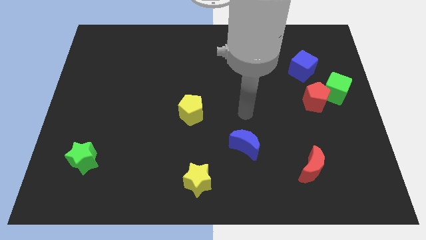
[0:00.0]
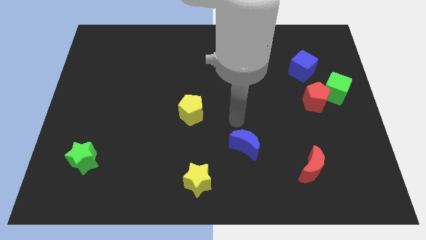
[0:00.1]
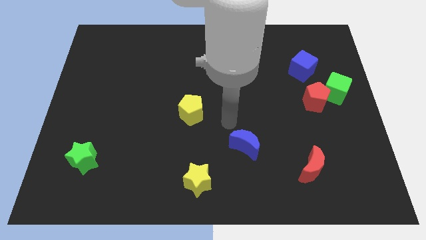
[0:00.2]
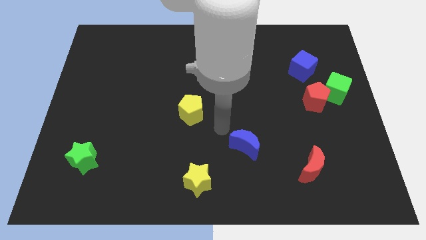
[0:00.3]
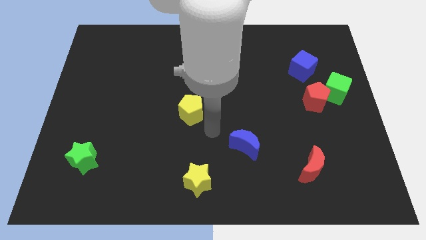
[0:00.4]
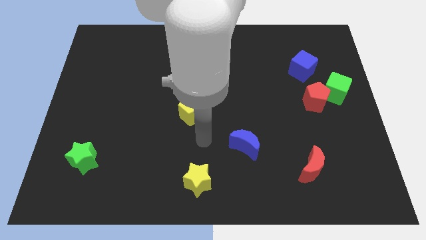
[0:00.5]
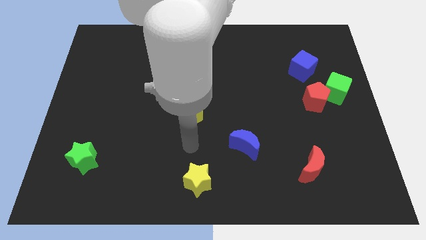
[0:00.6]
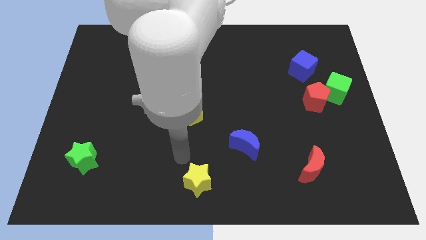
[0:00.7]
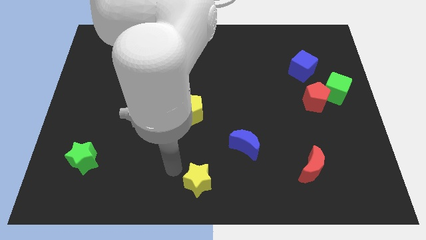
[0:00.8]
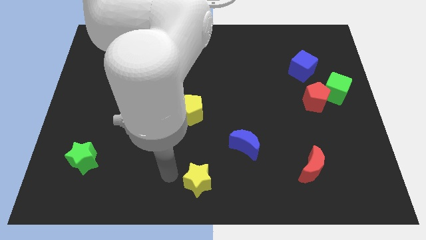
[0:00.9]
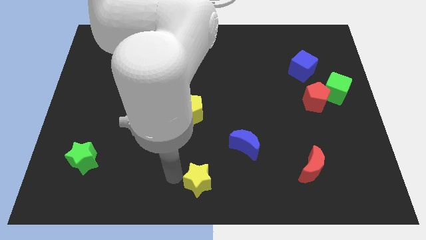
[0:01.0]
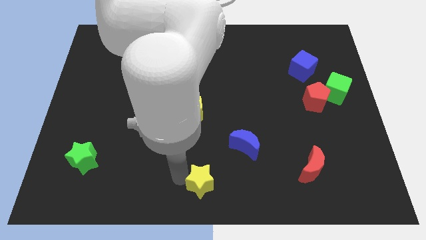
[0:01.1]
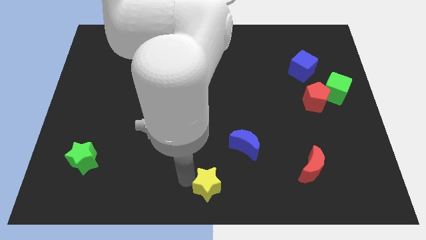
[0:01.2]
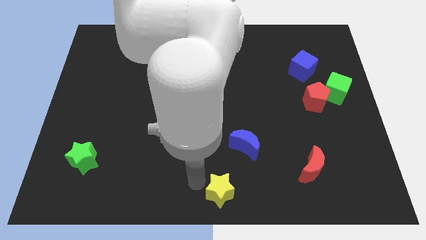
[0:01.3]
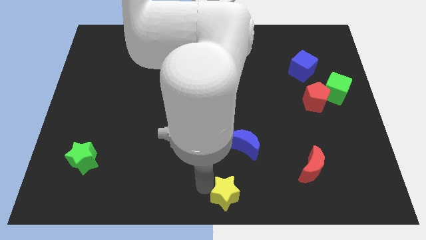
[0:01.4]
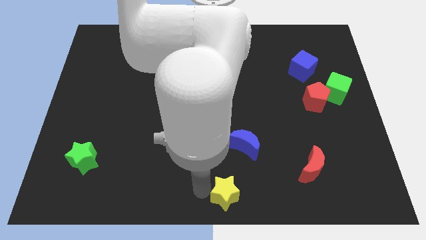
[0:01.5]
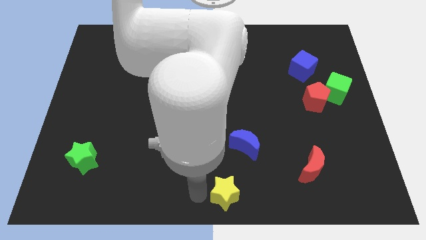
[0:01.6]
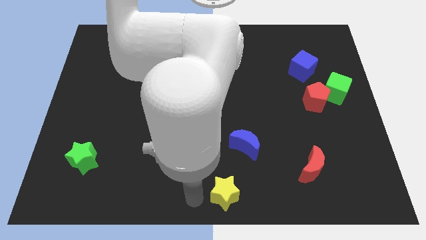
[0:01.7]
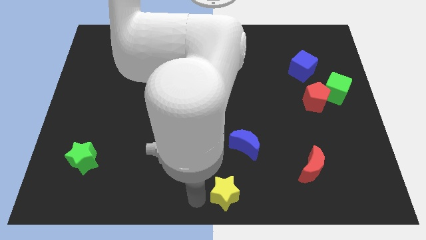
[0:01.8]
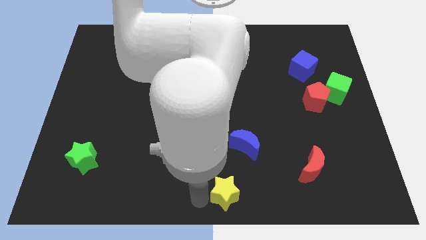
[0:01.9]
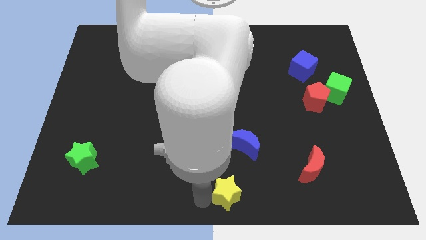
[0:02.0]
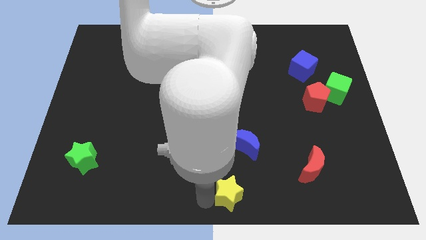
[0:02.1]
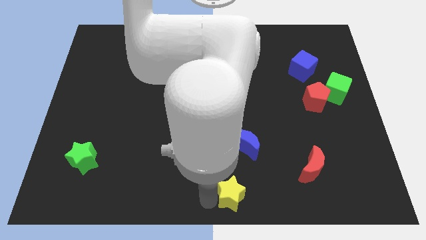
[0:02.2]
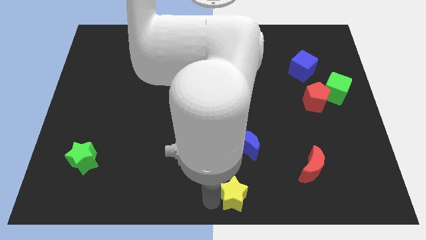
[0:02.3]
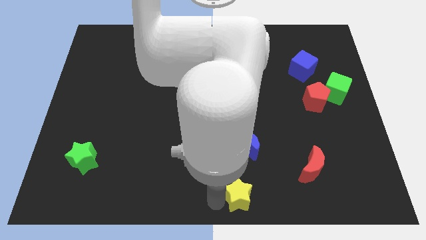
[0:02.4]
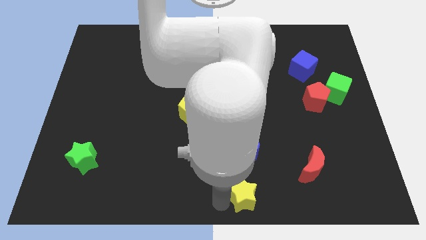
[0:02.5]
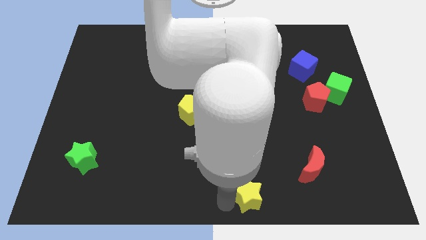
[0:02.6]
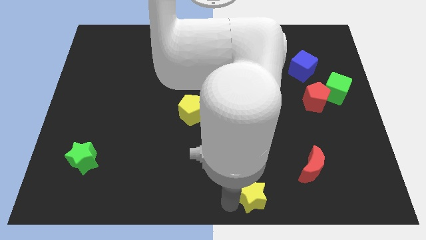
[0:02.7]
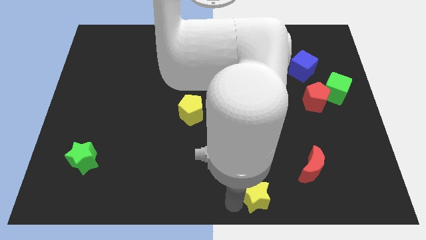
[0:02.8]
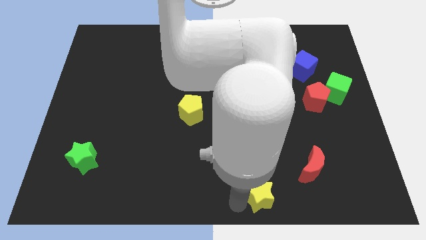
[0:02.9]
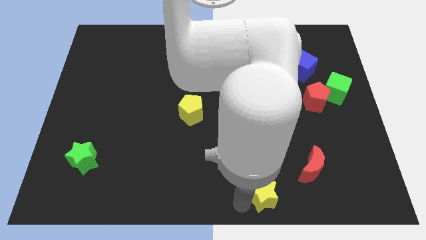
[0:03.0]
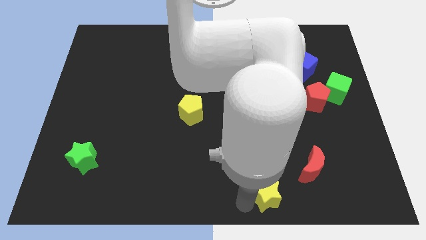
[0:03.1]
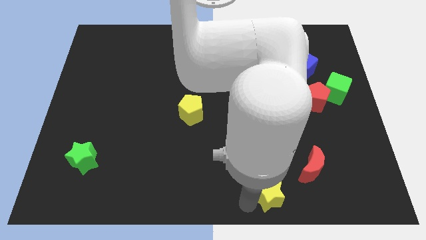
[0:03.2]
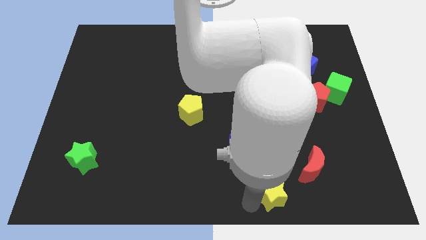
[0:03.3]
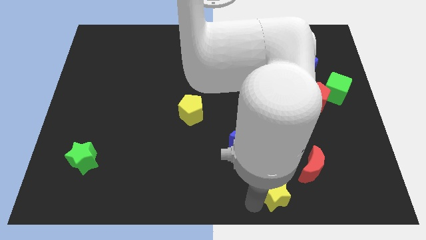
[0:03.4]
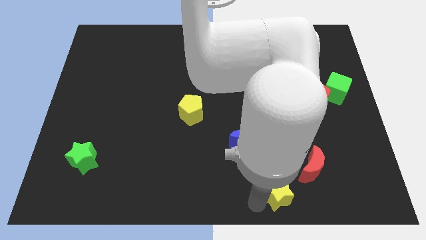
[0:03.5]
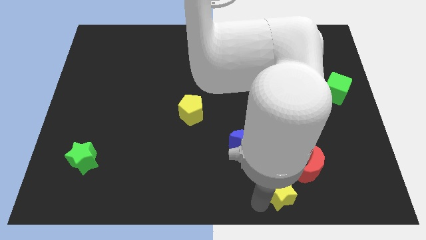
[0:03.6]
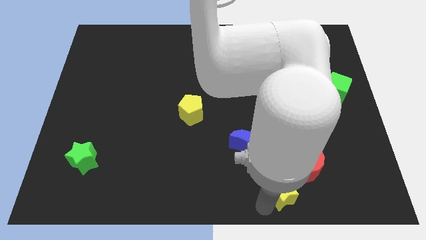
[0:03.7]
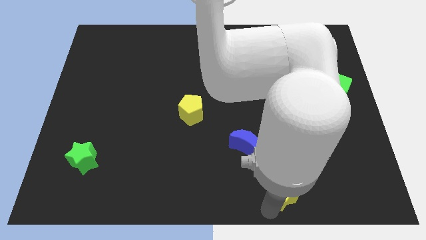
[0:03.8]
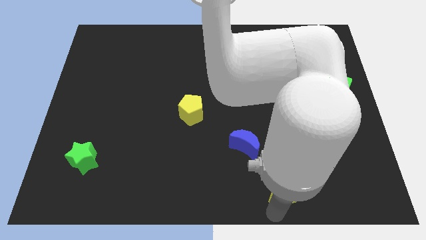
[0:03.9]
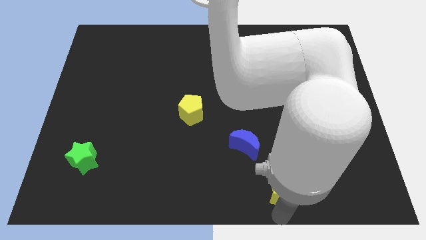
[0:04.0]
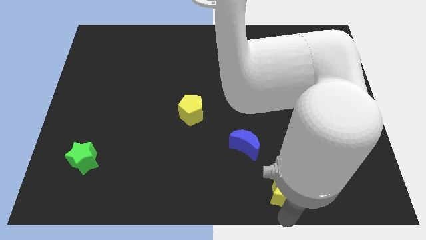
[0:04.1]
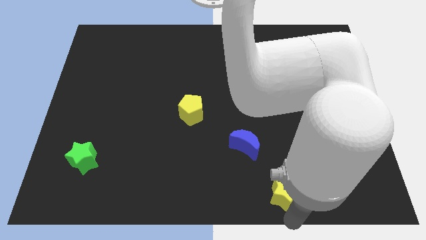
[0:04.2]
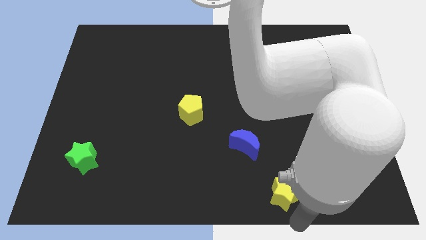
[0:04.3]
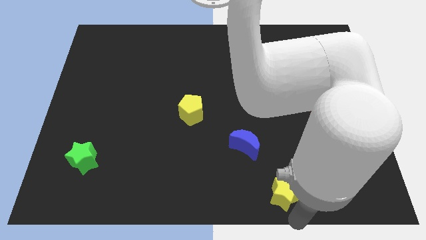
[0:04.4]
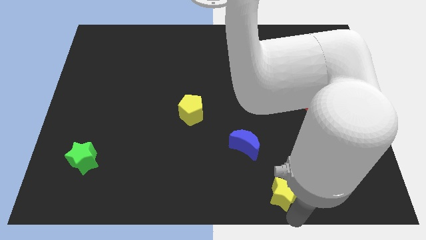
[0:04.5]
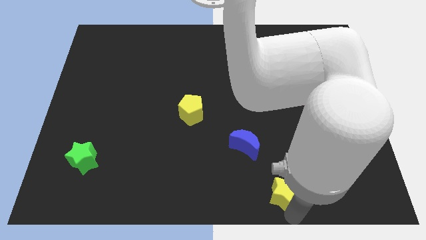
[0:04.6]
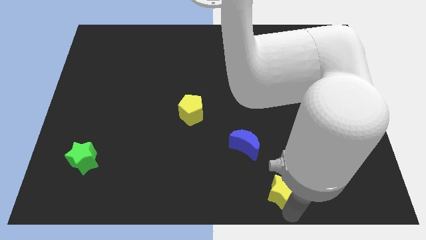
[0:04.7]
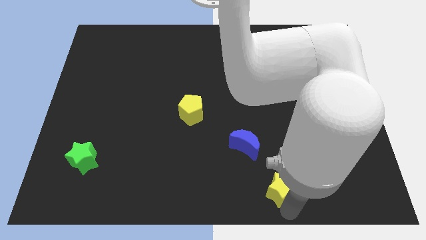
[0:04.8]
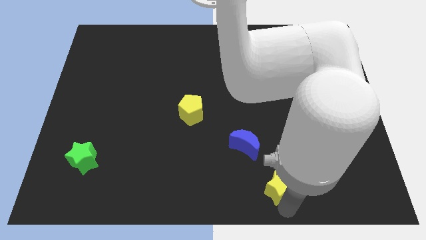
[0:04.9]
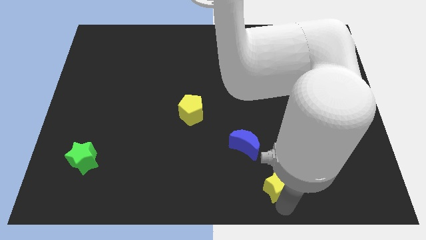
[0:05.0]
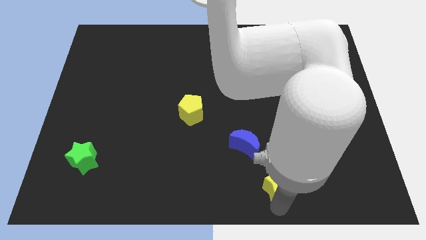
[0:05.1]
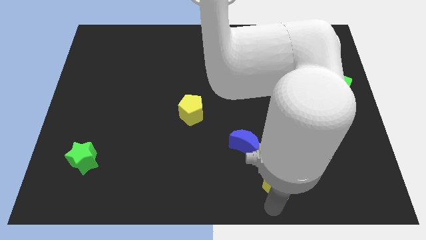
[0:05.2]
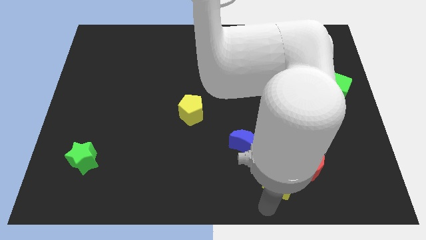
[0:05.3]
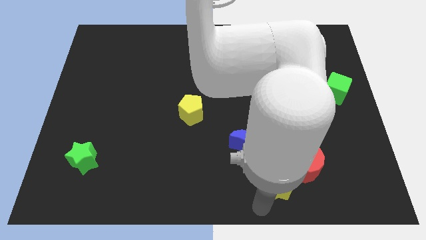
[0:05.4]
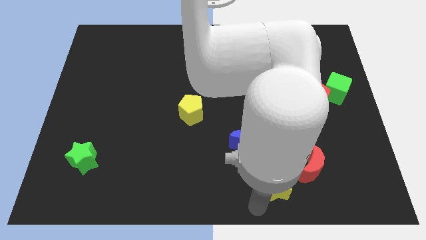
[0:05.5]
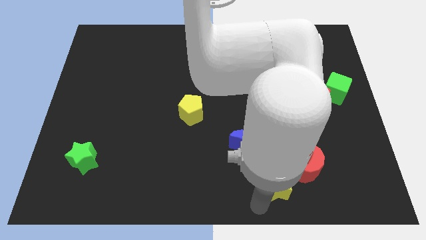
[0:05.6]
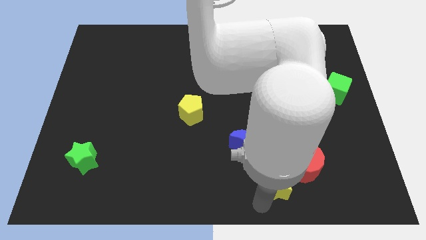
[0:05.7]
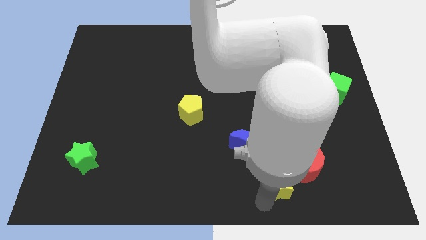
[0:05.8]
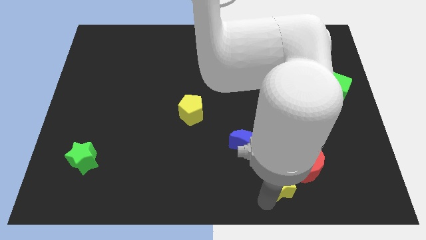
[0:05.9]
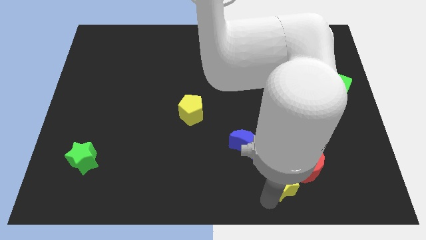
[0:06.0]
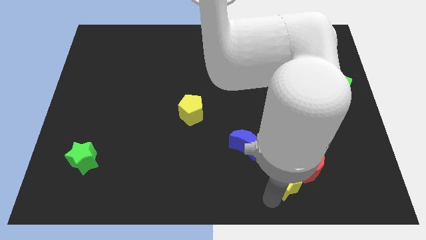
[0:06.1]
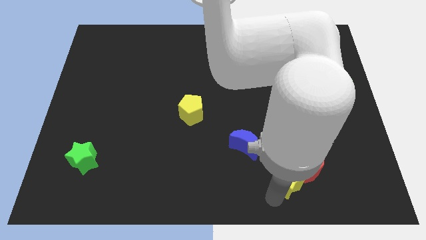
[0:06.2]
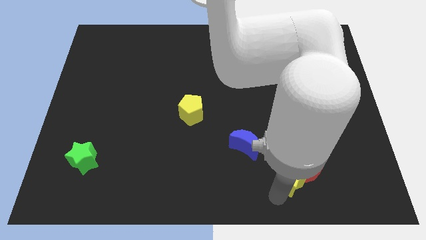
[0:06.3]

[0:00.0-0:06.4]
move the yellow star towards the red moon

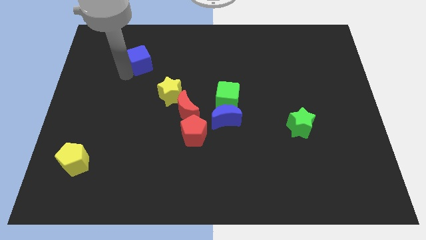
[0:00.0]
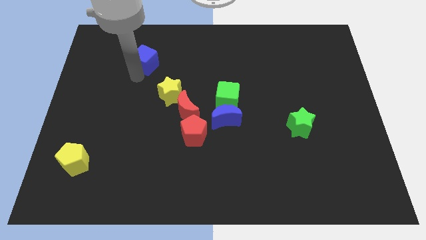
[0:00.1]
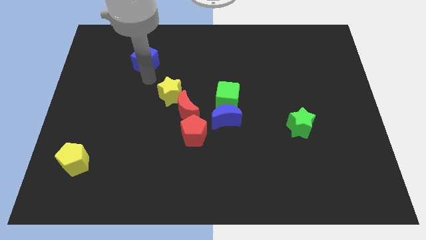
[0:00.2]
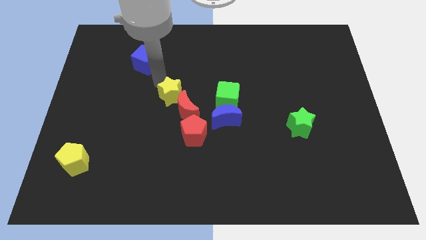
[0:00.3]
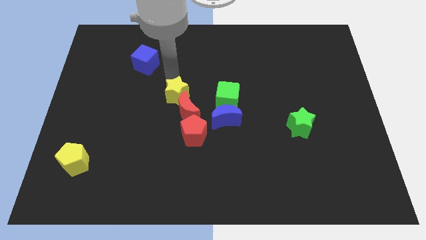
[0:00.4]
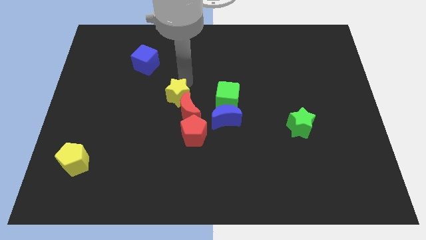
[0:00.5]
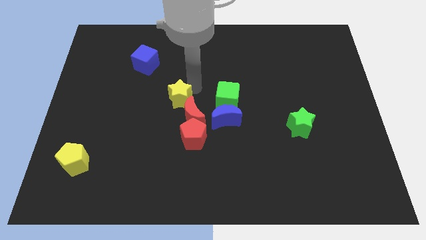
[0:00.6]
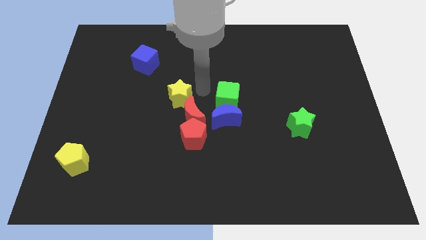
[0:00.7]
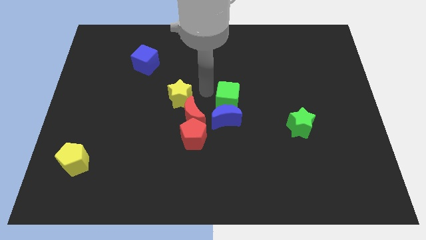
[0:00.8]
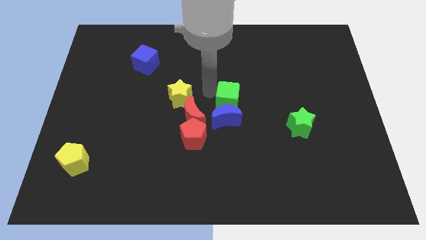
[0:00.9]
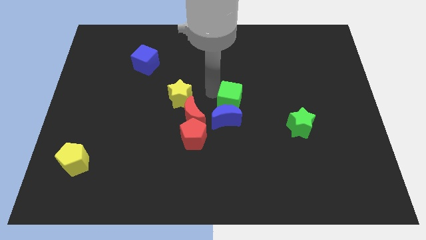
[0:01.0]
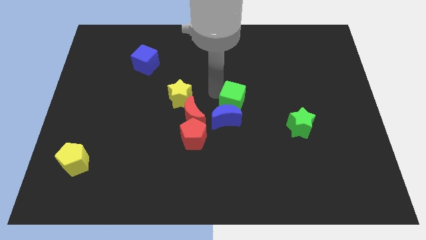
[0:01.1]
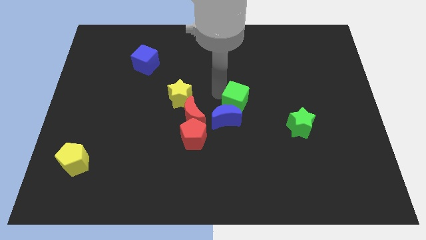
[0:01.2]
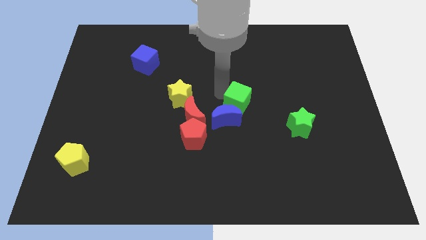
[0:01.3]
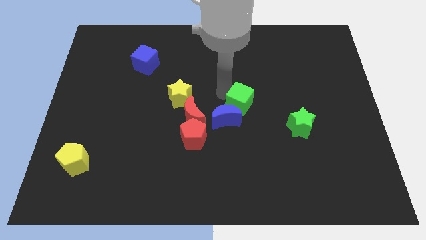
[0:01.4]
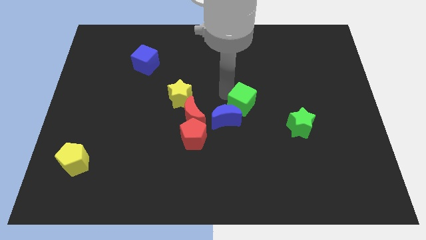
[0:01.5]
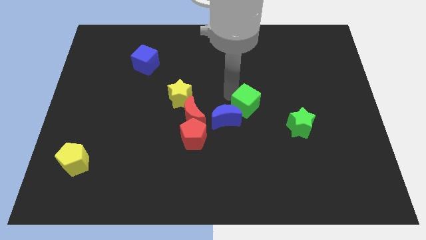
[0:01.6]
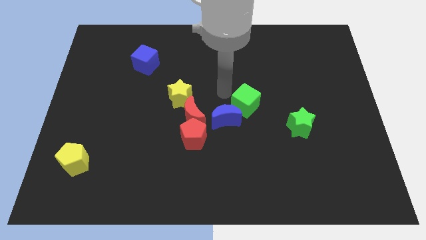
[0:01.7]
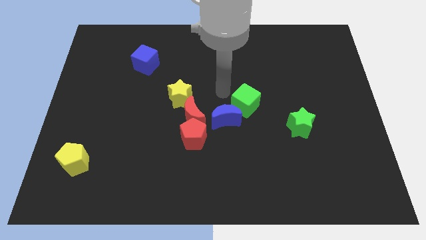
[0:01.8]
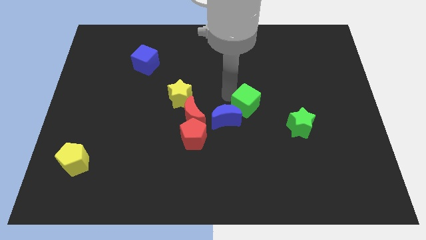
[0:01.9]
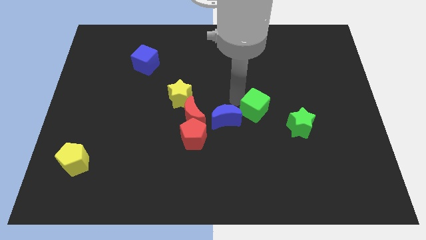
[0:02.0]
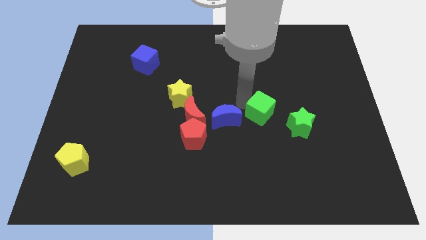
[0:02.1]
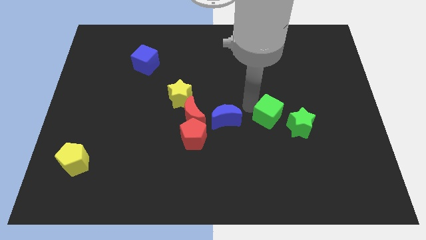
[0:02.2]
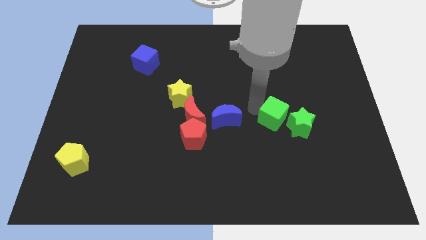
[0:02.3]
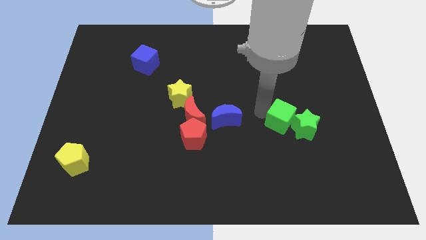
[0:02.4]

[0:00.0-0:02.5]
put the green cube to the green star
